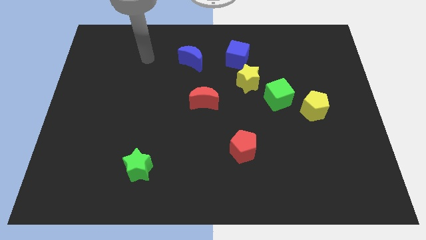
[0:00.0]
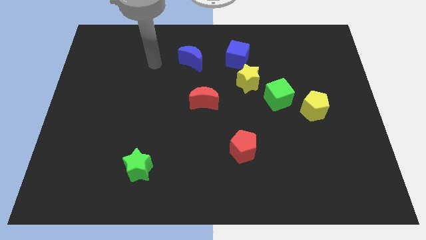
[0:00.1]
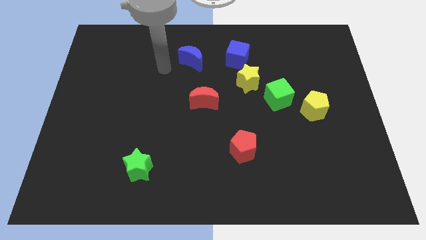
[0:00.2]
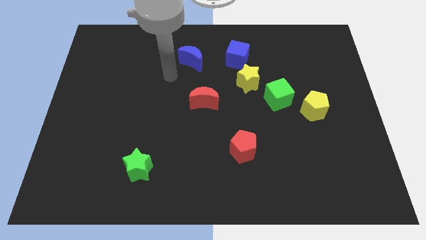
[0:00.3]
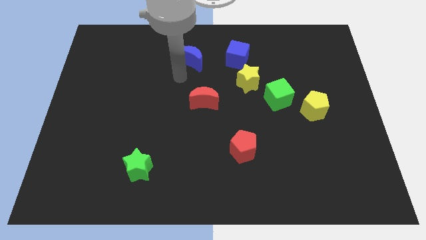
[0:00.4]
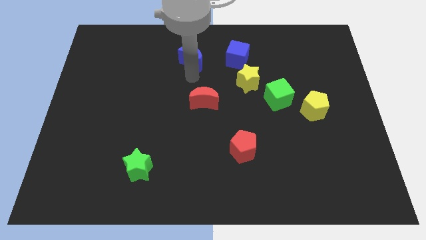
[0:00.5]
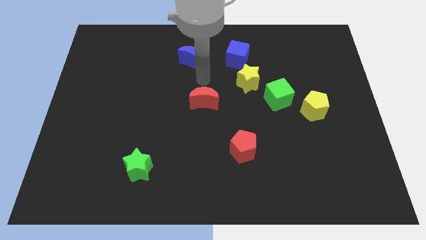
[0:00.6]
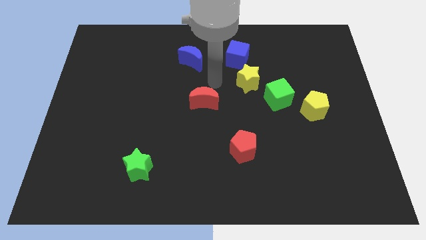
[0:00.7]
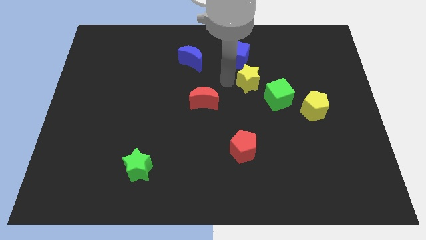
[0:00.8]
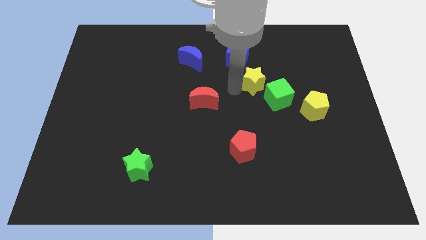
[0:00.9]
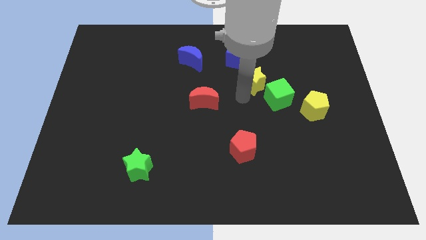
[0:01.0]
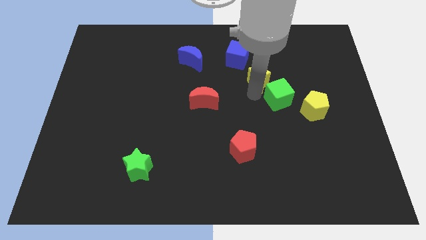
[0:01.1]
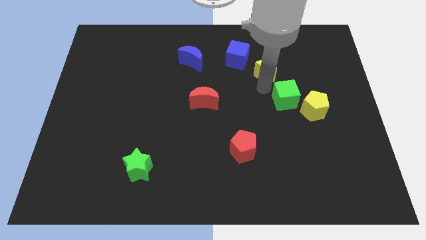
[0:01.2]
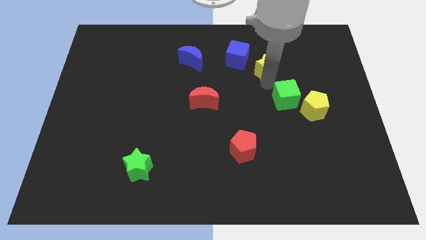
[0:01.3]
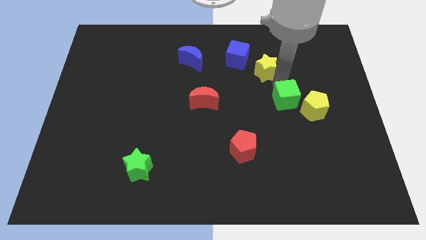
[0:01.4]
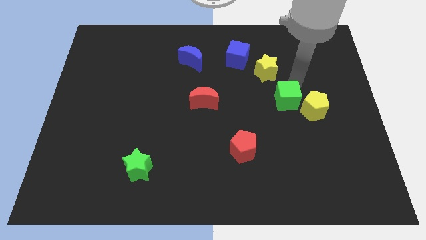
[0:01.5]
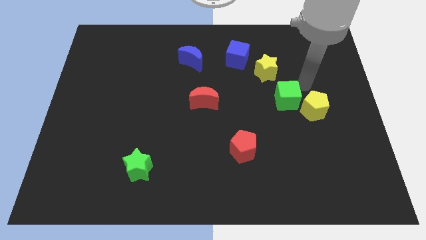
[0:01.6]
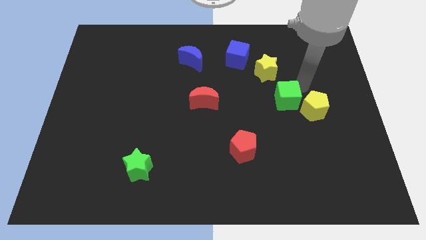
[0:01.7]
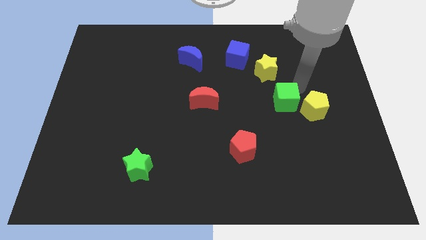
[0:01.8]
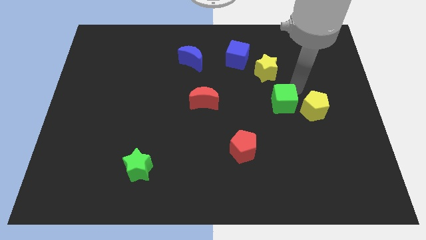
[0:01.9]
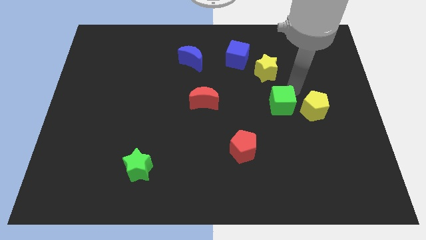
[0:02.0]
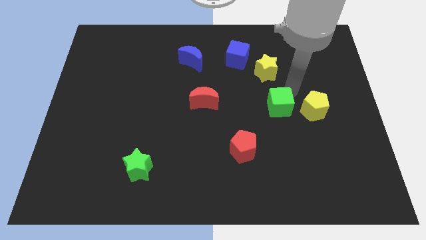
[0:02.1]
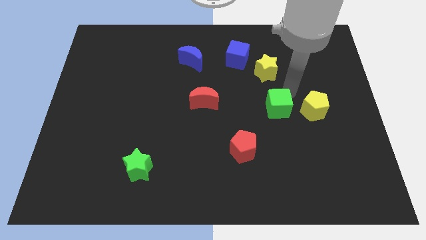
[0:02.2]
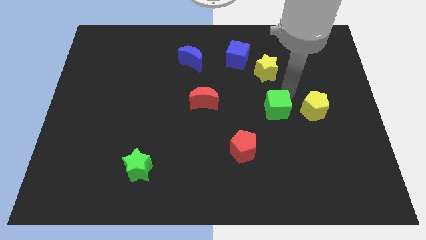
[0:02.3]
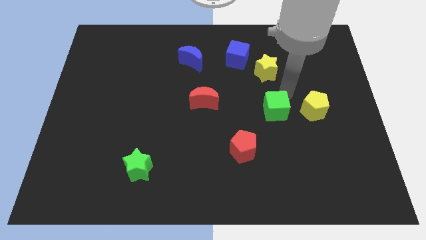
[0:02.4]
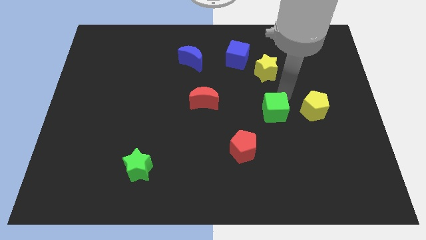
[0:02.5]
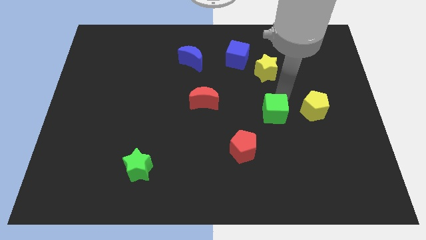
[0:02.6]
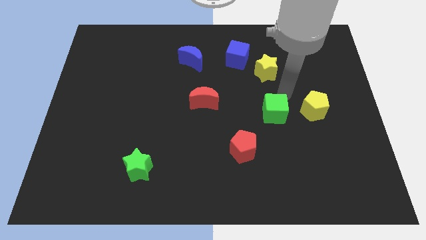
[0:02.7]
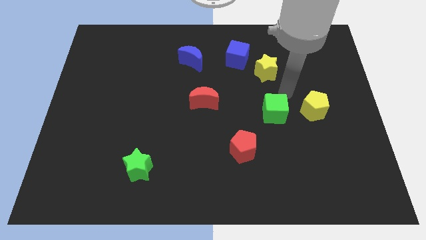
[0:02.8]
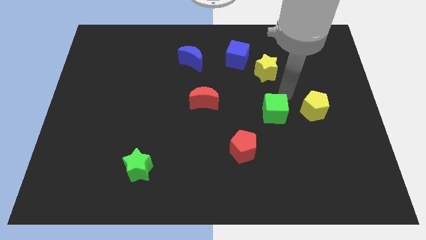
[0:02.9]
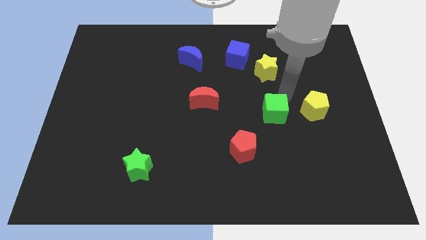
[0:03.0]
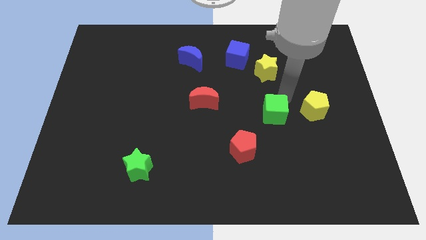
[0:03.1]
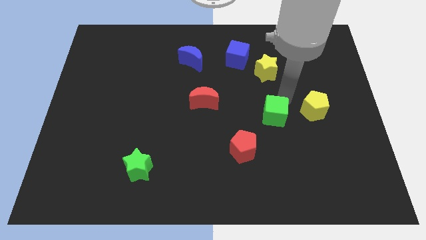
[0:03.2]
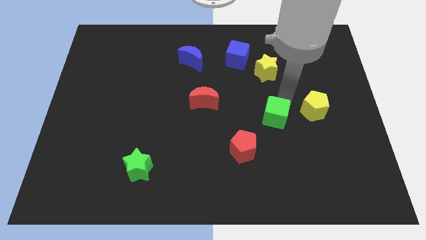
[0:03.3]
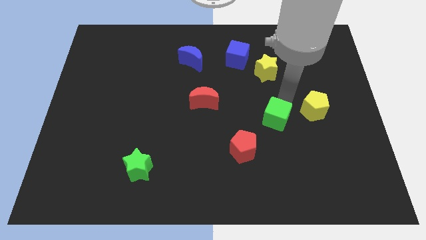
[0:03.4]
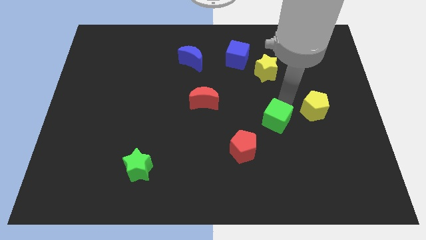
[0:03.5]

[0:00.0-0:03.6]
move the green cube away from the yellow star and yellow pentagon

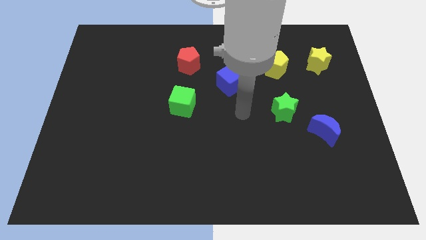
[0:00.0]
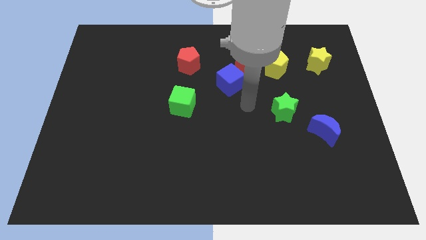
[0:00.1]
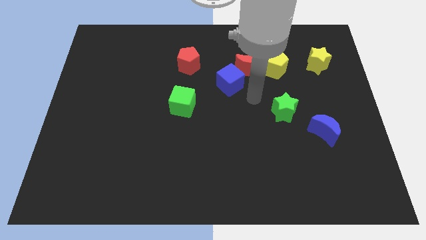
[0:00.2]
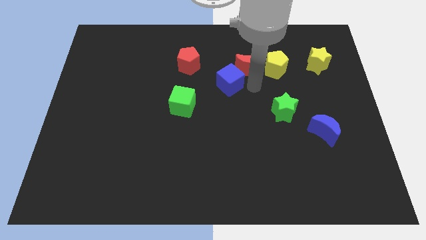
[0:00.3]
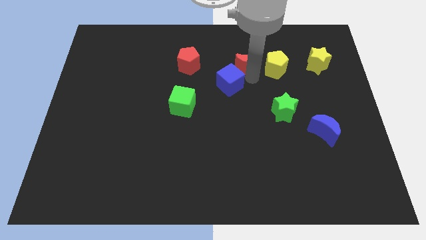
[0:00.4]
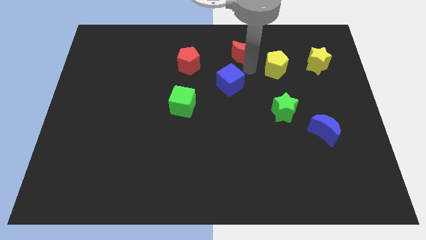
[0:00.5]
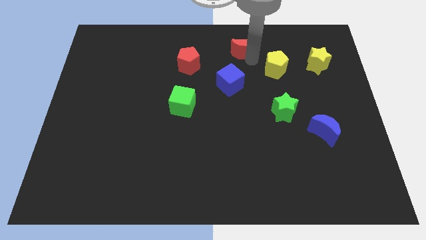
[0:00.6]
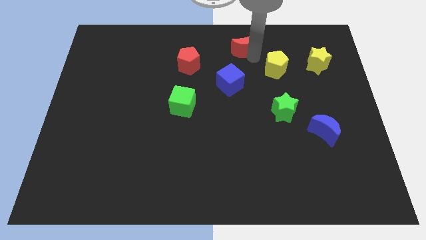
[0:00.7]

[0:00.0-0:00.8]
pull the yellow pentagon apart from the red moon

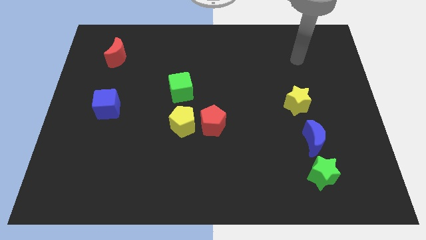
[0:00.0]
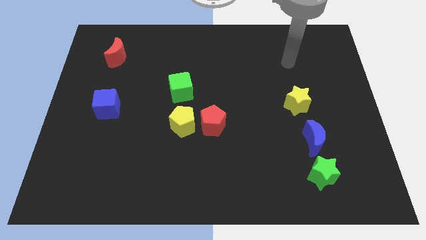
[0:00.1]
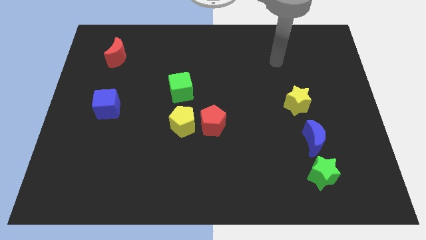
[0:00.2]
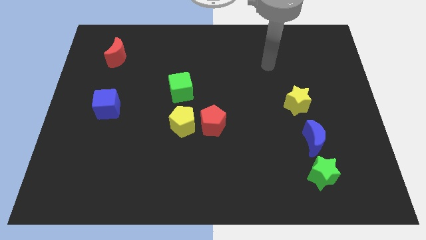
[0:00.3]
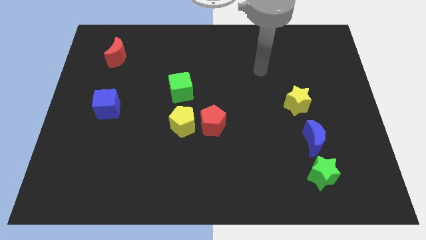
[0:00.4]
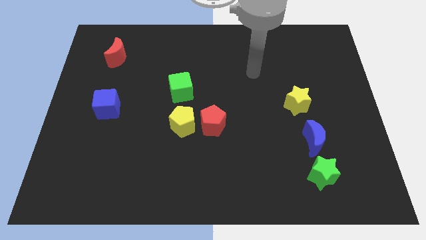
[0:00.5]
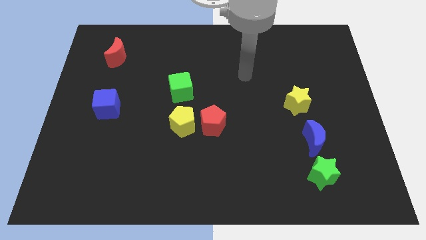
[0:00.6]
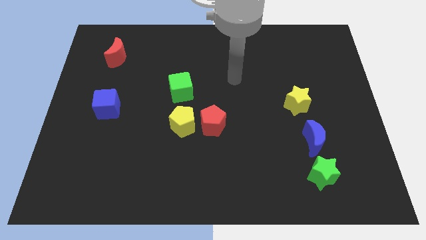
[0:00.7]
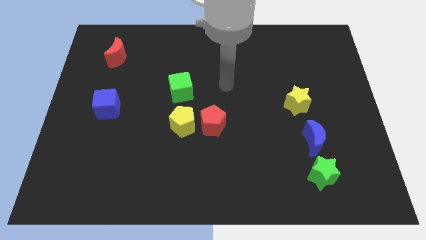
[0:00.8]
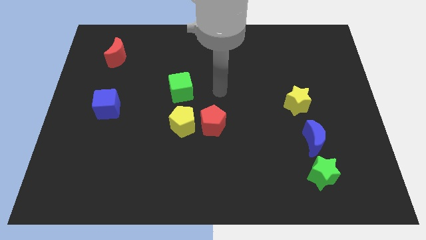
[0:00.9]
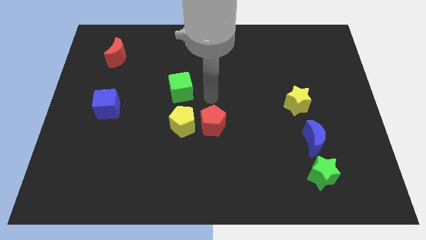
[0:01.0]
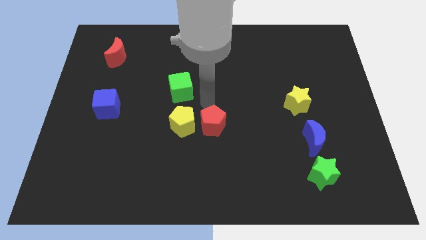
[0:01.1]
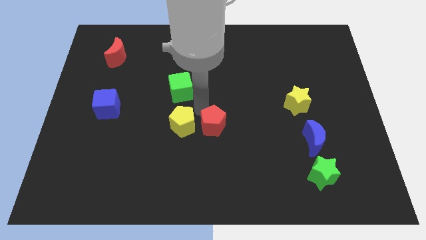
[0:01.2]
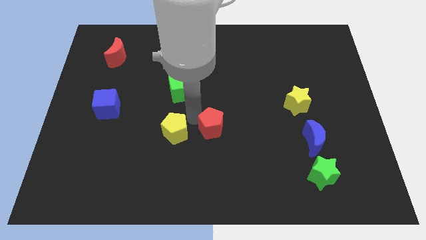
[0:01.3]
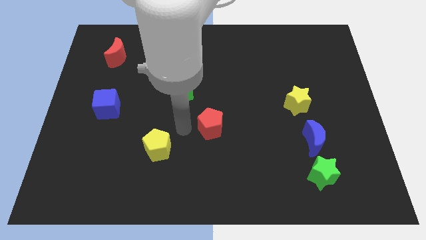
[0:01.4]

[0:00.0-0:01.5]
separate the red pentagon from the yellow pentagon

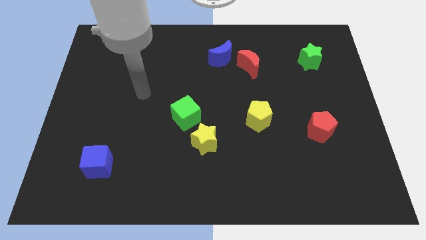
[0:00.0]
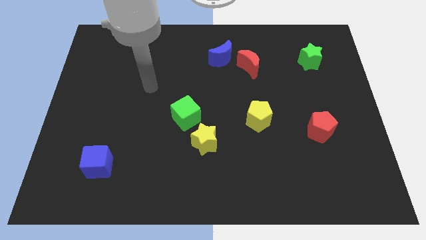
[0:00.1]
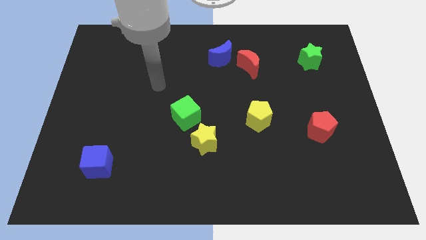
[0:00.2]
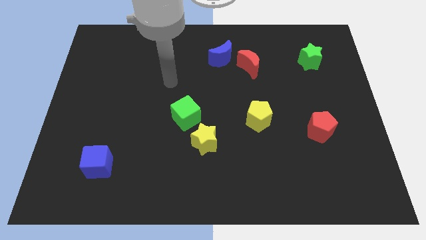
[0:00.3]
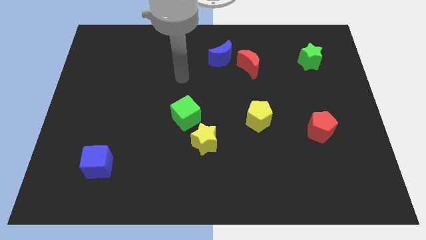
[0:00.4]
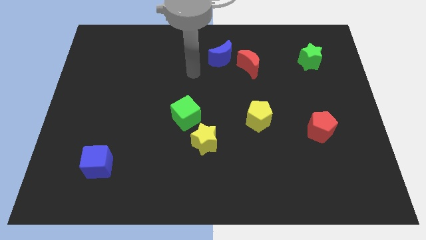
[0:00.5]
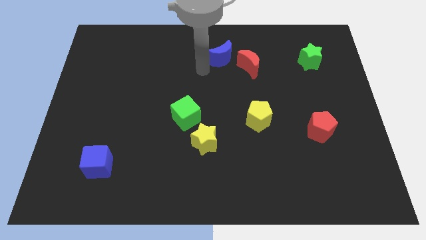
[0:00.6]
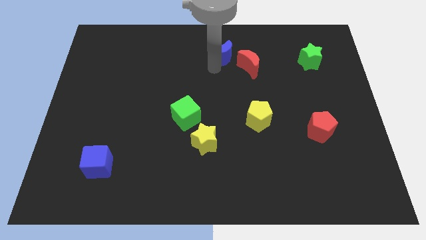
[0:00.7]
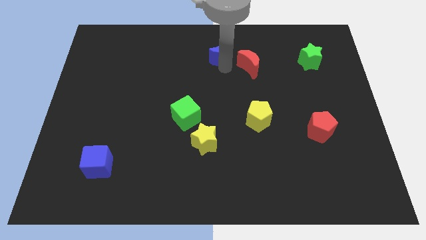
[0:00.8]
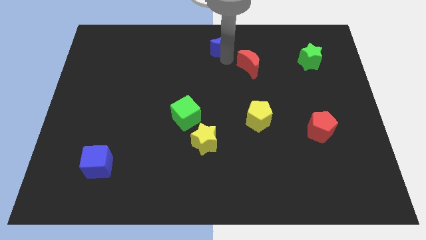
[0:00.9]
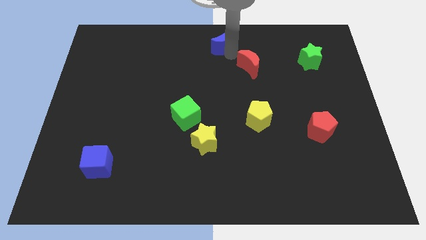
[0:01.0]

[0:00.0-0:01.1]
separate the red moon from the blue moon

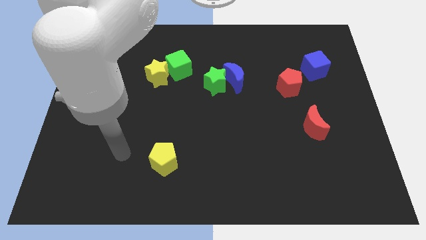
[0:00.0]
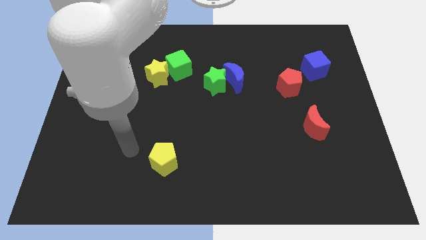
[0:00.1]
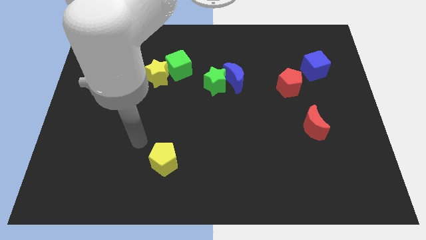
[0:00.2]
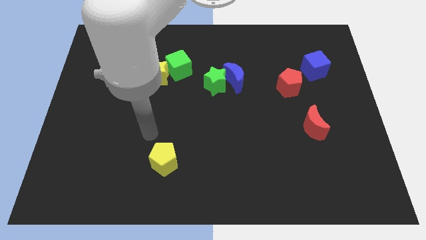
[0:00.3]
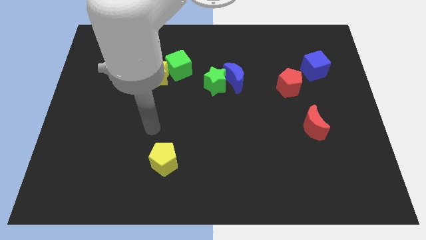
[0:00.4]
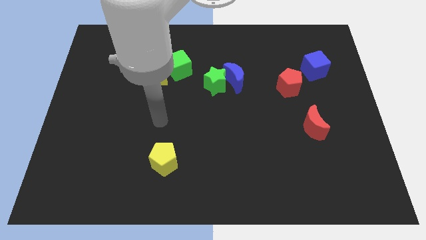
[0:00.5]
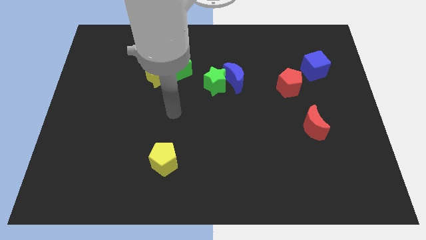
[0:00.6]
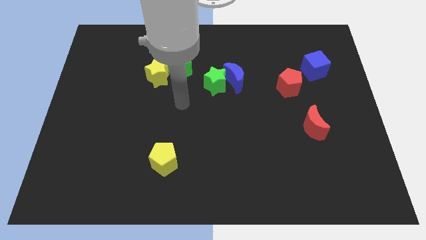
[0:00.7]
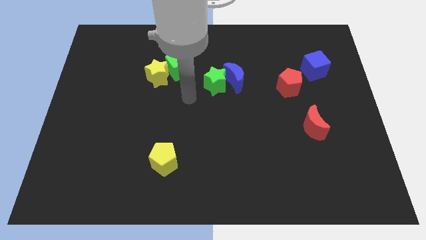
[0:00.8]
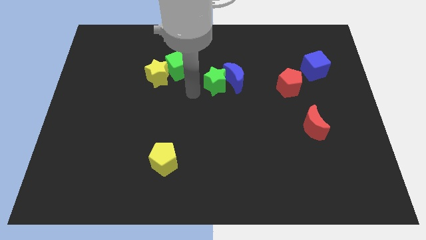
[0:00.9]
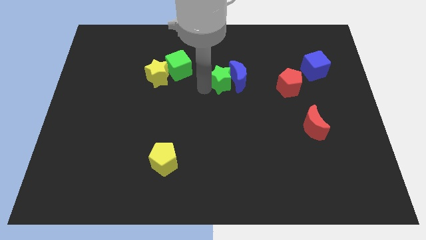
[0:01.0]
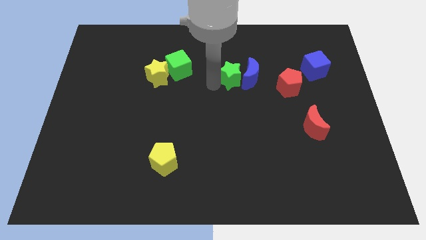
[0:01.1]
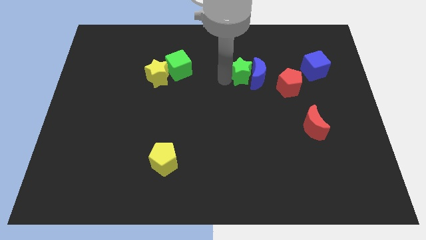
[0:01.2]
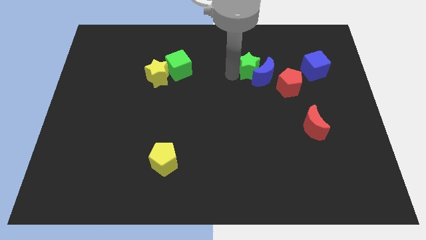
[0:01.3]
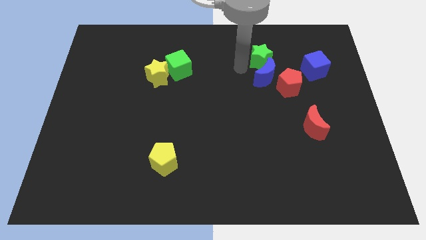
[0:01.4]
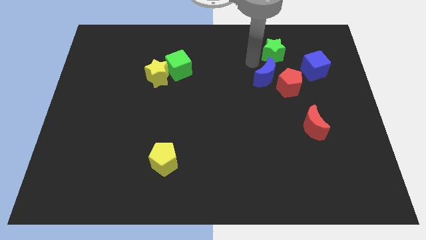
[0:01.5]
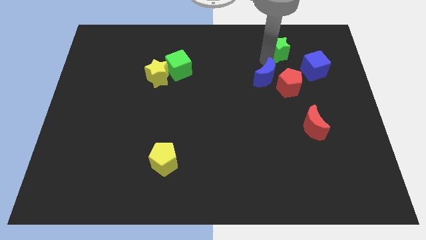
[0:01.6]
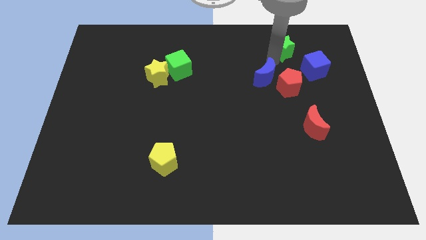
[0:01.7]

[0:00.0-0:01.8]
move the blue moon away from the green star

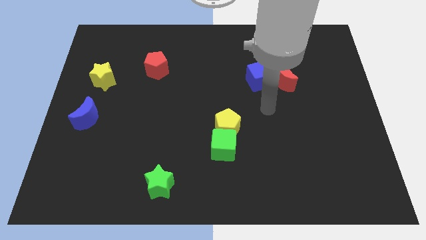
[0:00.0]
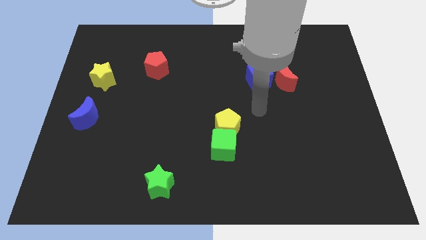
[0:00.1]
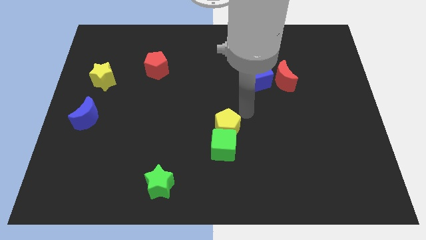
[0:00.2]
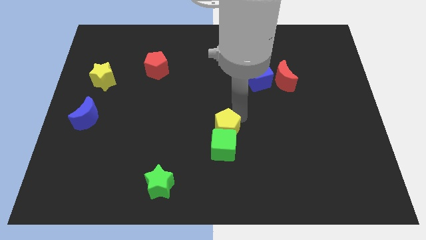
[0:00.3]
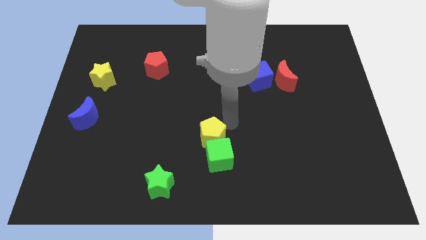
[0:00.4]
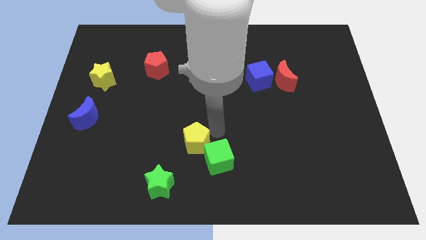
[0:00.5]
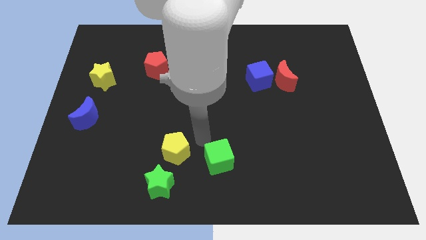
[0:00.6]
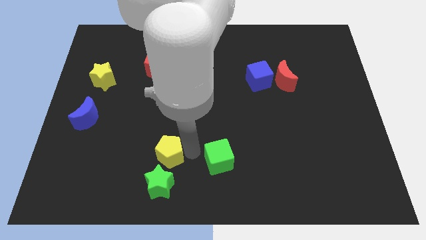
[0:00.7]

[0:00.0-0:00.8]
separate the green cube from the yellow pentagon
